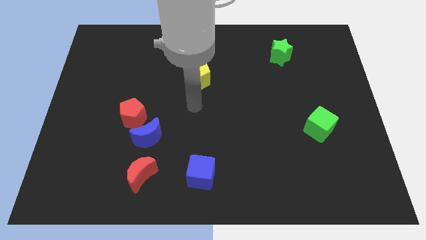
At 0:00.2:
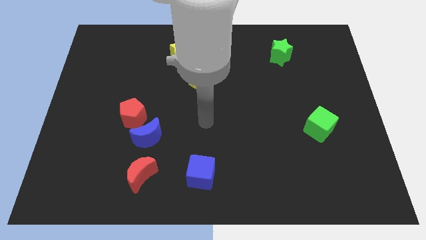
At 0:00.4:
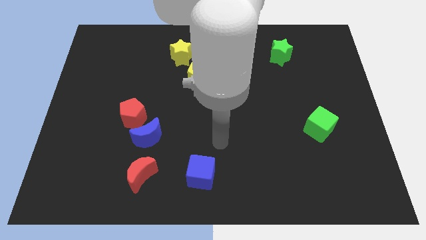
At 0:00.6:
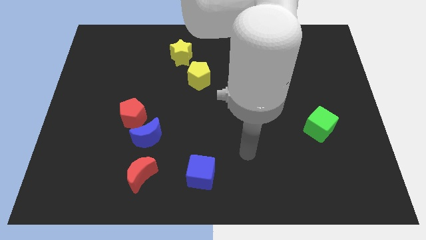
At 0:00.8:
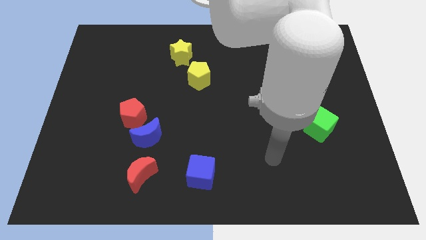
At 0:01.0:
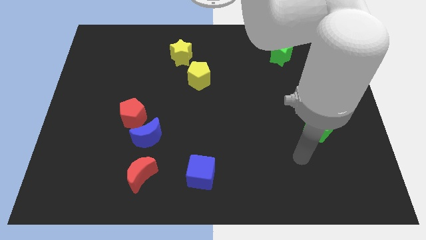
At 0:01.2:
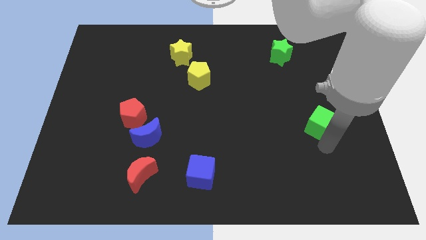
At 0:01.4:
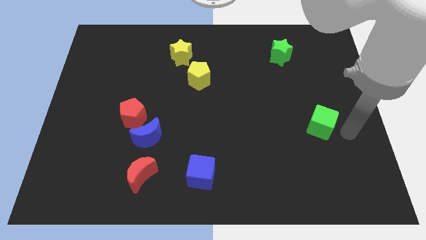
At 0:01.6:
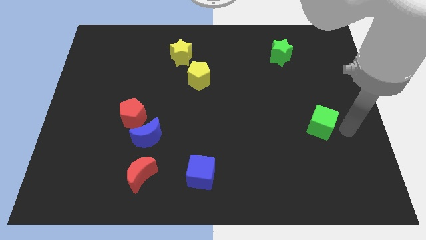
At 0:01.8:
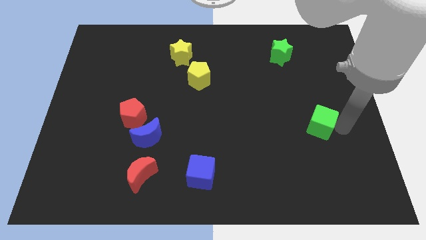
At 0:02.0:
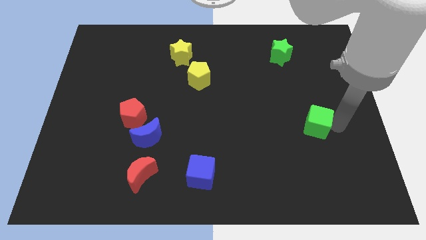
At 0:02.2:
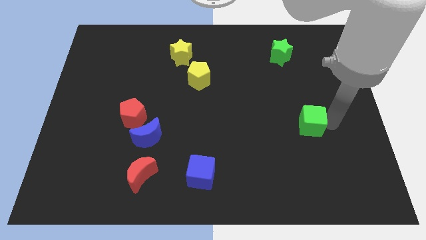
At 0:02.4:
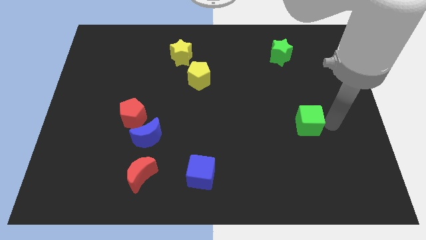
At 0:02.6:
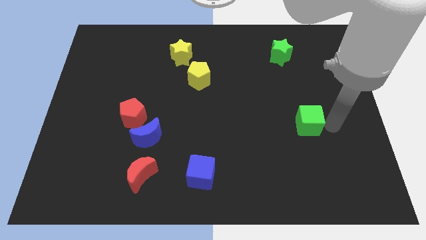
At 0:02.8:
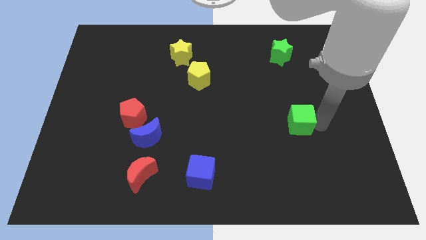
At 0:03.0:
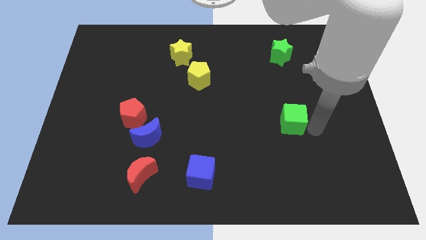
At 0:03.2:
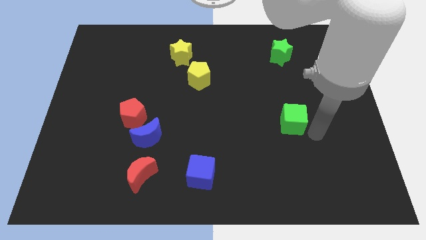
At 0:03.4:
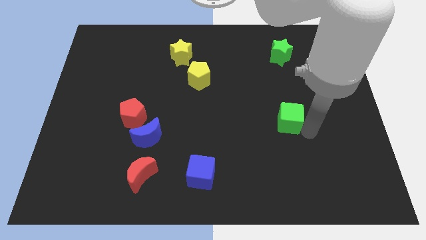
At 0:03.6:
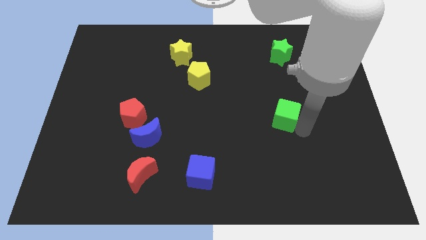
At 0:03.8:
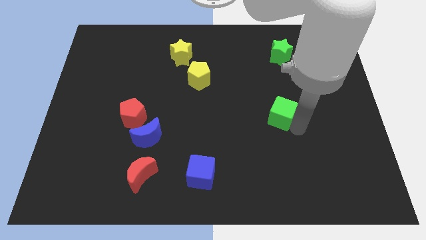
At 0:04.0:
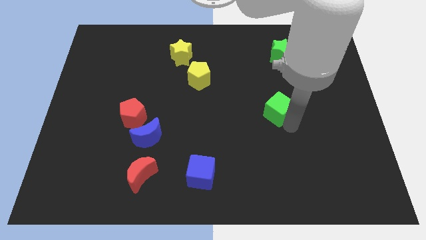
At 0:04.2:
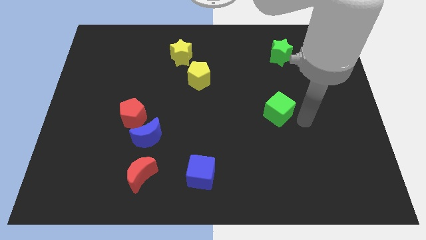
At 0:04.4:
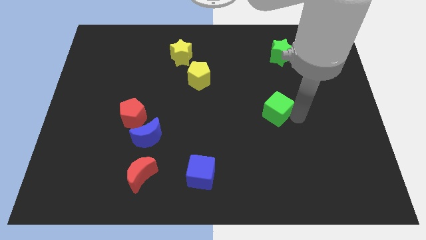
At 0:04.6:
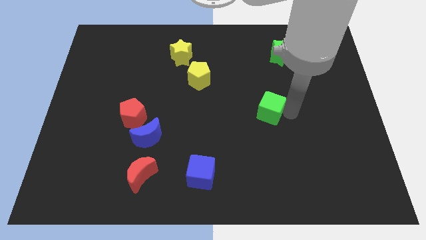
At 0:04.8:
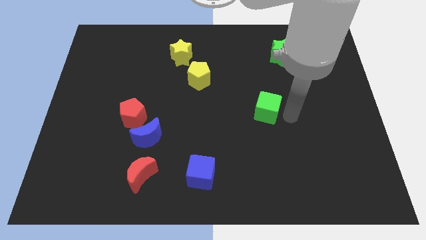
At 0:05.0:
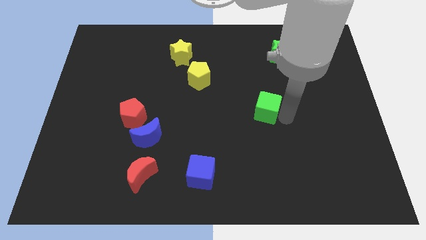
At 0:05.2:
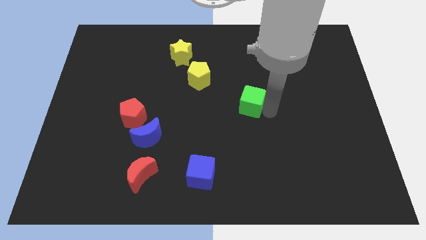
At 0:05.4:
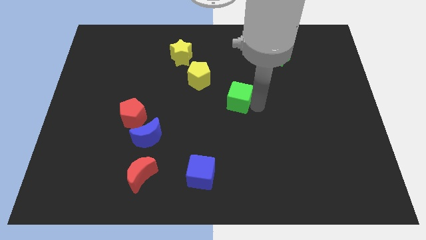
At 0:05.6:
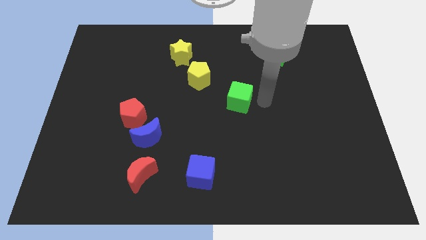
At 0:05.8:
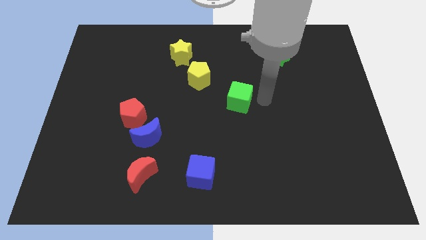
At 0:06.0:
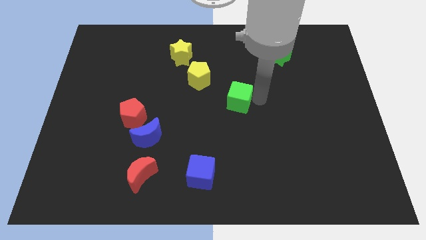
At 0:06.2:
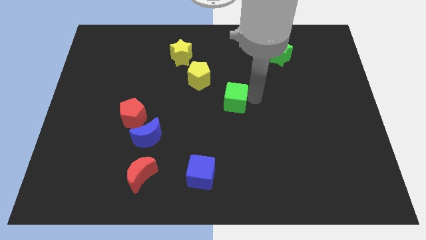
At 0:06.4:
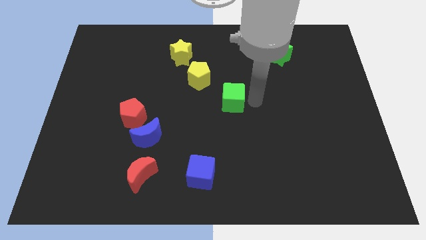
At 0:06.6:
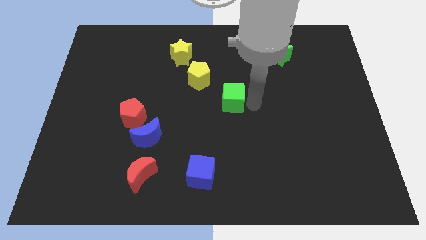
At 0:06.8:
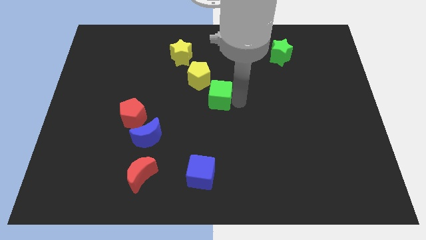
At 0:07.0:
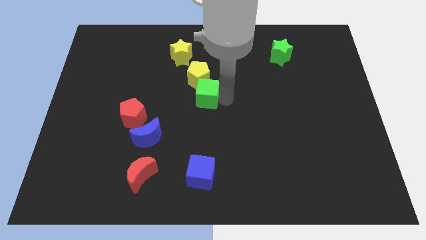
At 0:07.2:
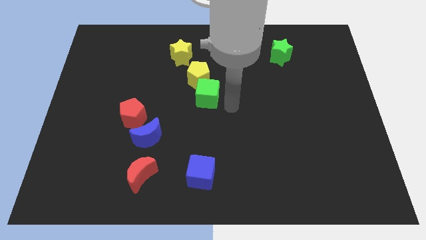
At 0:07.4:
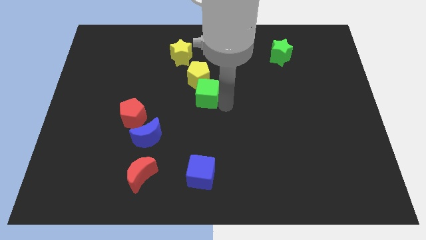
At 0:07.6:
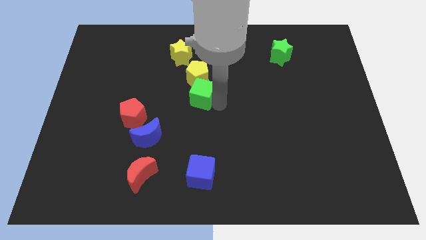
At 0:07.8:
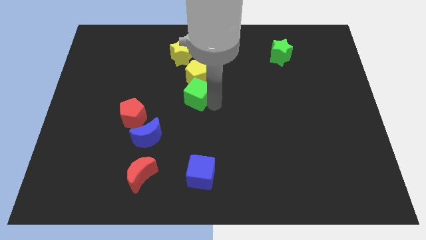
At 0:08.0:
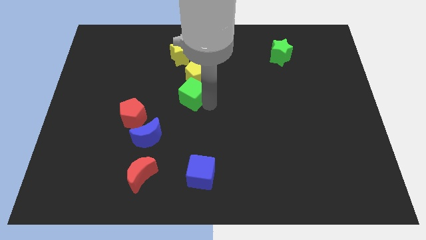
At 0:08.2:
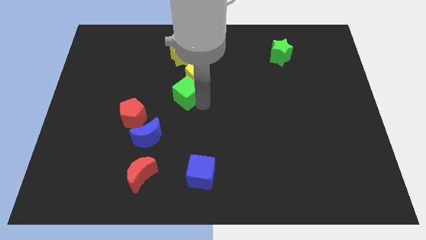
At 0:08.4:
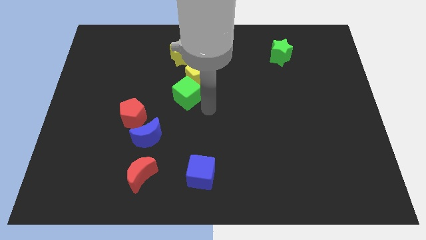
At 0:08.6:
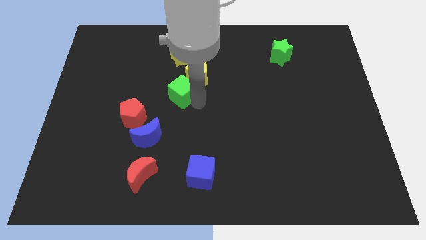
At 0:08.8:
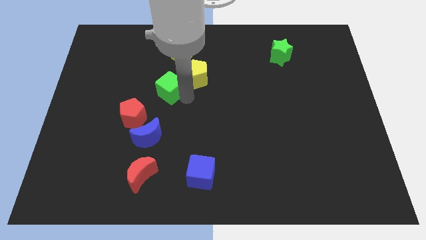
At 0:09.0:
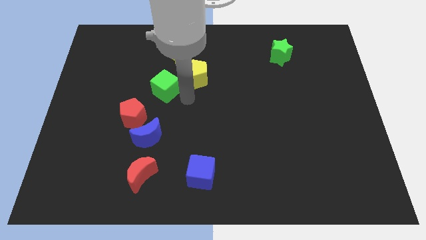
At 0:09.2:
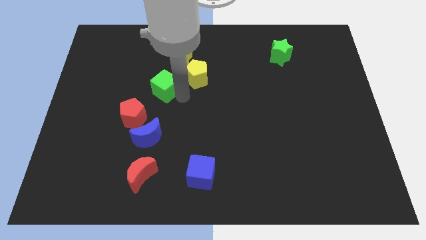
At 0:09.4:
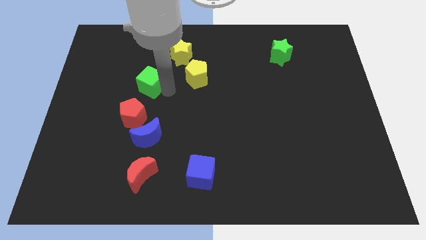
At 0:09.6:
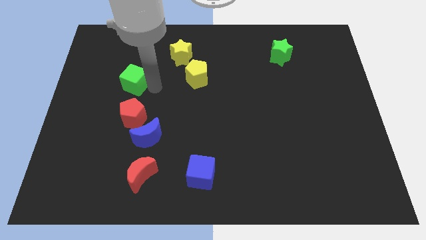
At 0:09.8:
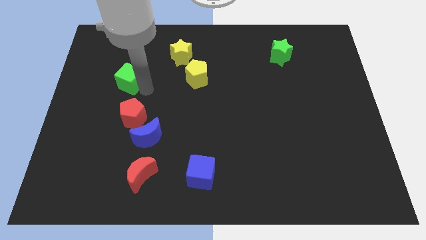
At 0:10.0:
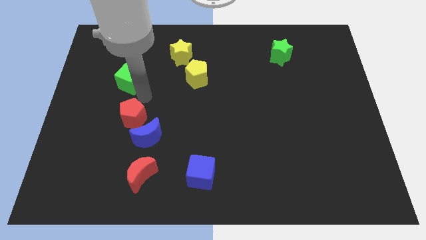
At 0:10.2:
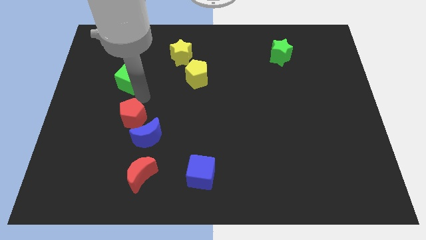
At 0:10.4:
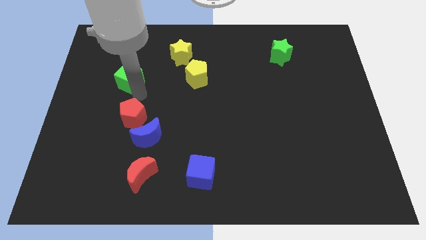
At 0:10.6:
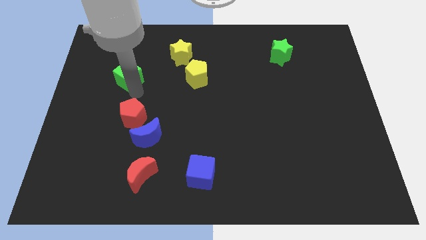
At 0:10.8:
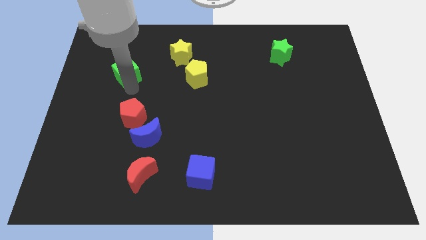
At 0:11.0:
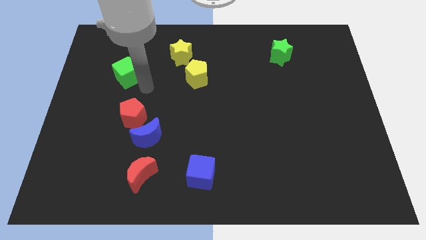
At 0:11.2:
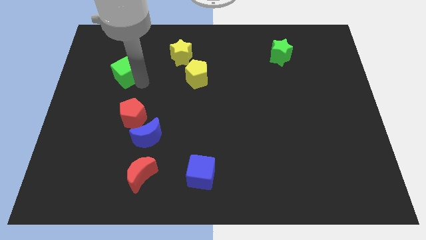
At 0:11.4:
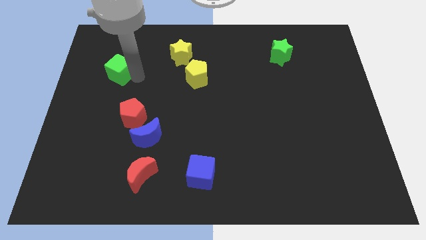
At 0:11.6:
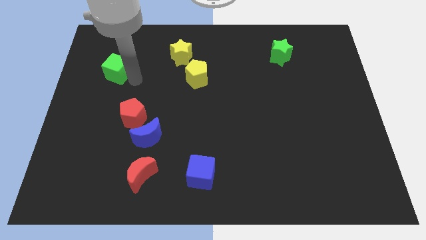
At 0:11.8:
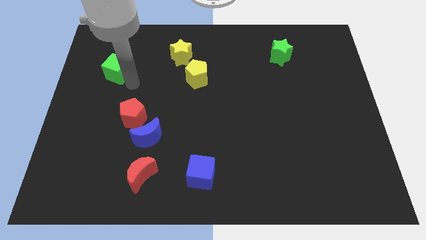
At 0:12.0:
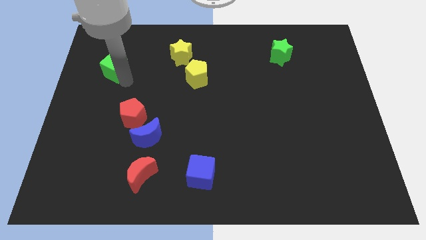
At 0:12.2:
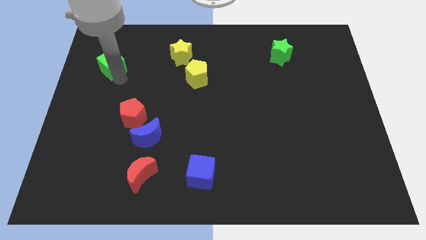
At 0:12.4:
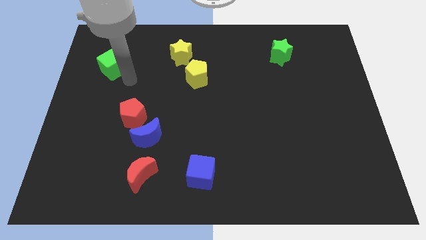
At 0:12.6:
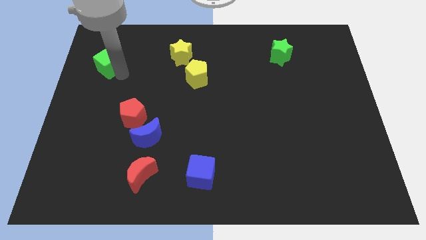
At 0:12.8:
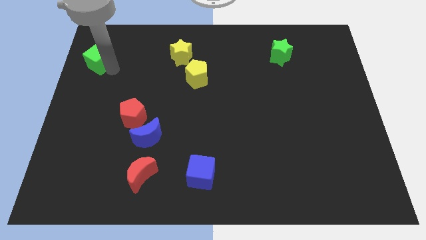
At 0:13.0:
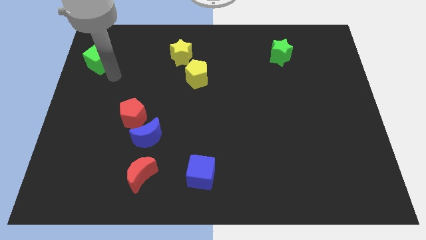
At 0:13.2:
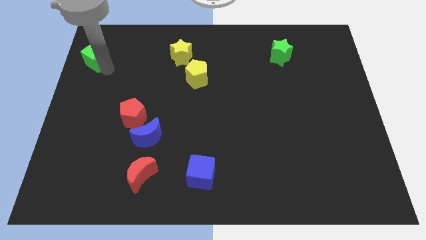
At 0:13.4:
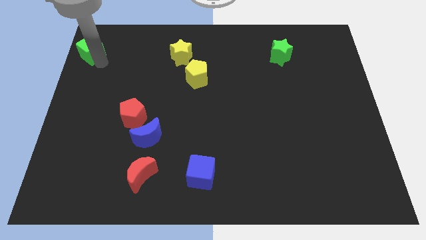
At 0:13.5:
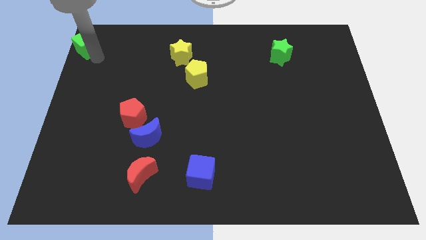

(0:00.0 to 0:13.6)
put the green cube to the upper left corner

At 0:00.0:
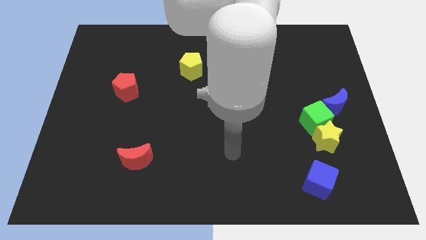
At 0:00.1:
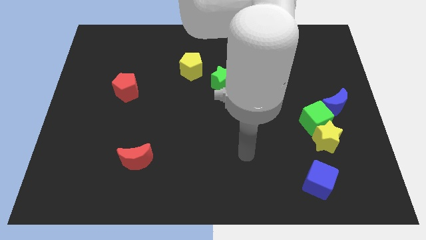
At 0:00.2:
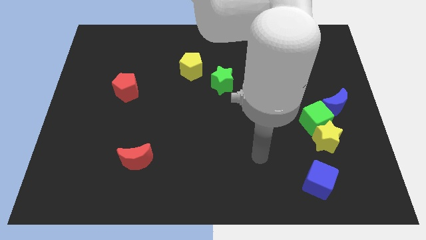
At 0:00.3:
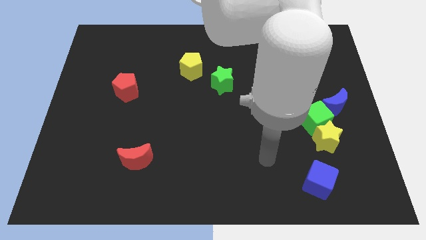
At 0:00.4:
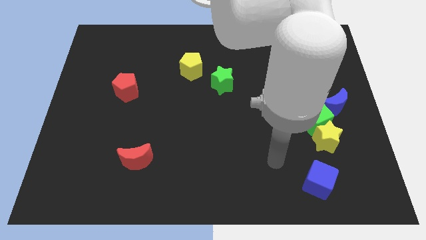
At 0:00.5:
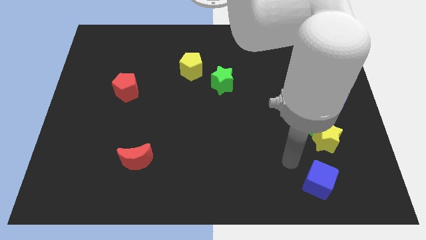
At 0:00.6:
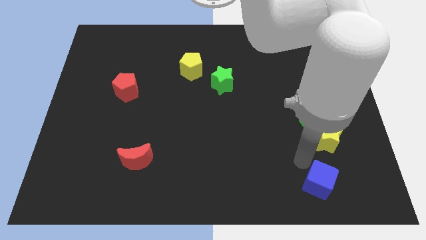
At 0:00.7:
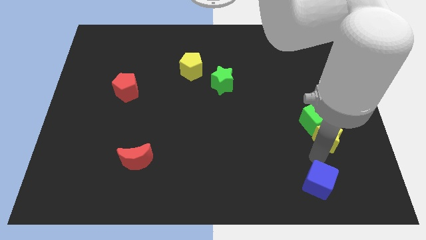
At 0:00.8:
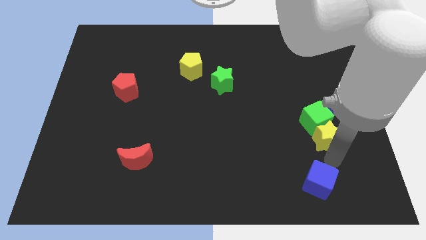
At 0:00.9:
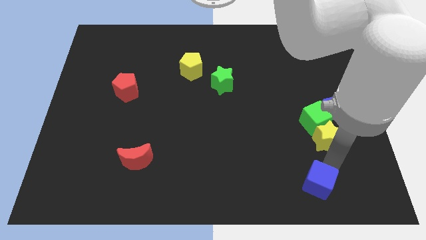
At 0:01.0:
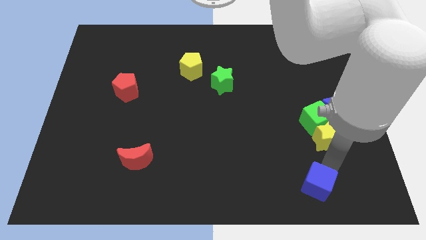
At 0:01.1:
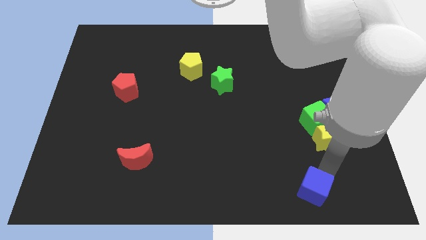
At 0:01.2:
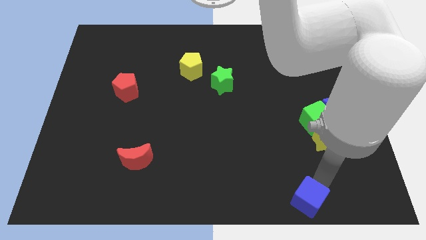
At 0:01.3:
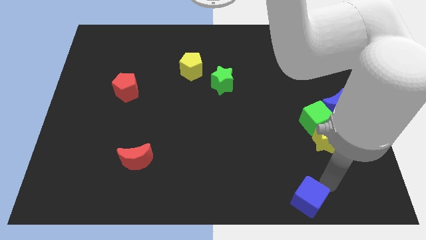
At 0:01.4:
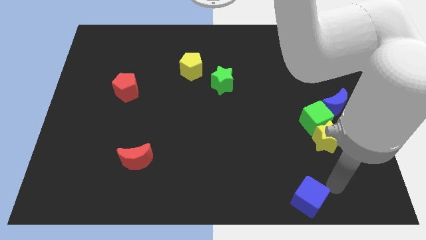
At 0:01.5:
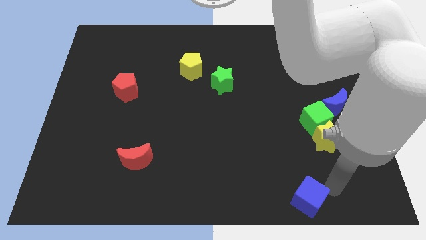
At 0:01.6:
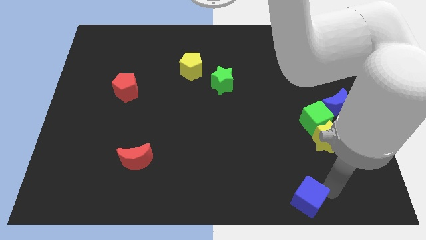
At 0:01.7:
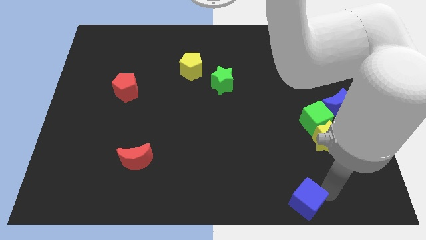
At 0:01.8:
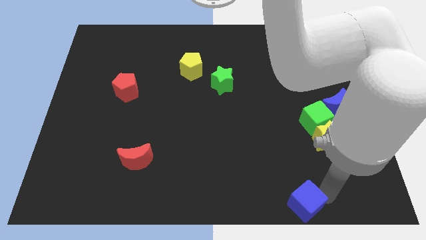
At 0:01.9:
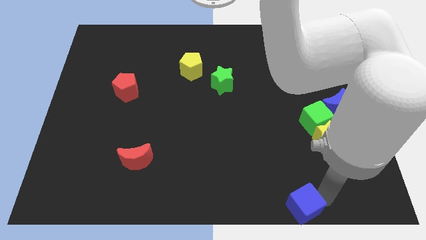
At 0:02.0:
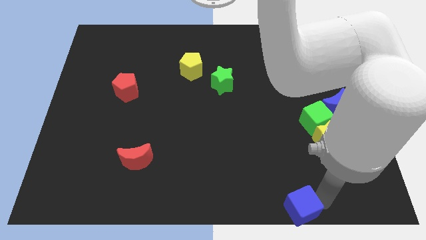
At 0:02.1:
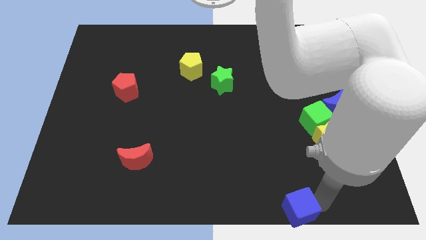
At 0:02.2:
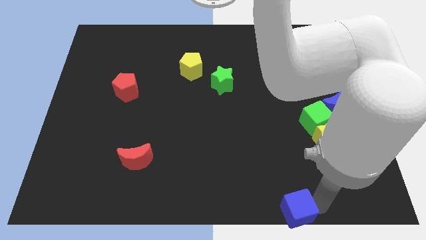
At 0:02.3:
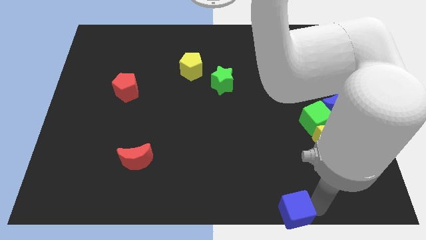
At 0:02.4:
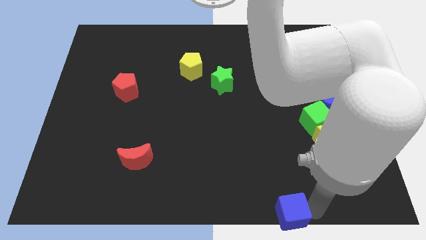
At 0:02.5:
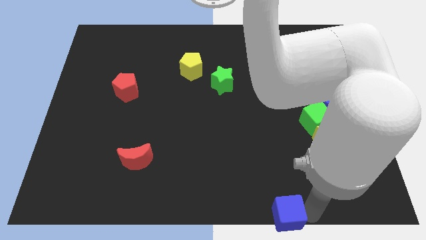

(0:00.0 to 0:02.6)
slide the blue cube to the bottom side
